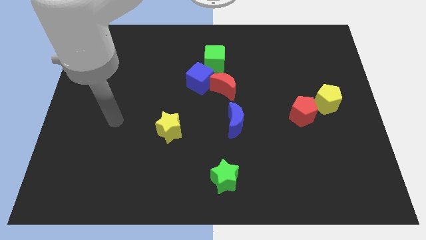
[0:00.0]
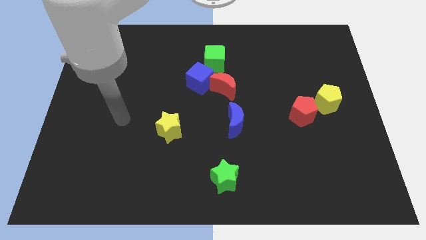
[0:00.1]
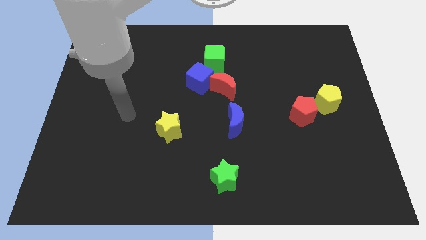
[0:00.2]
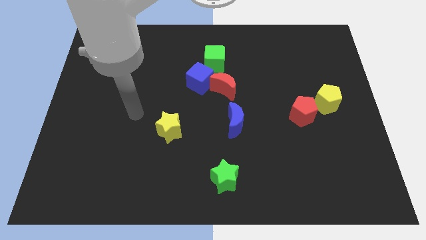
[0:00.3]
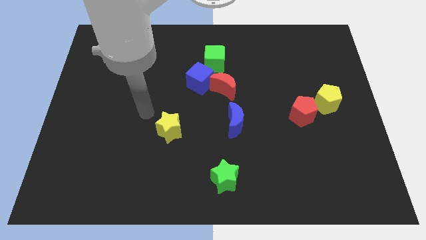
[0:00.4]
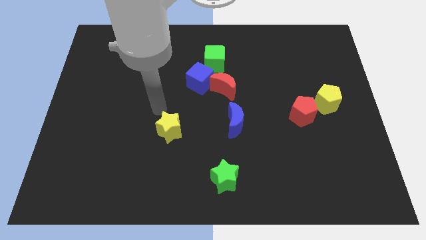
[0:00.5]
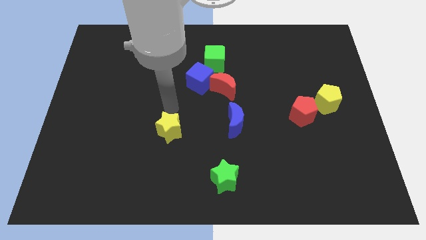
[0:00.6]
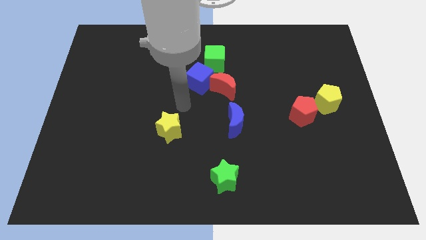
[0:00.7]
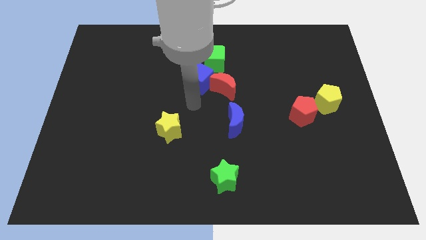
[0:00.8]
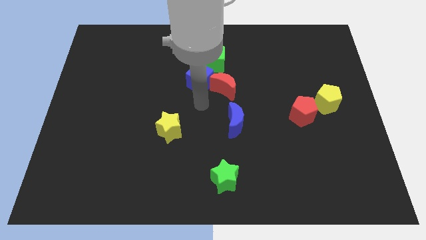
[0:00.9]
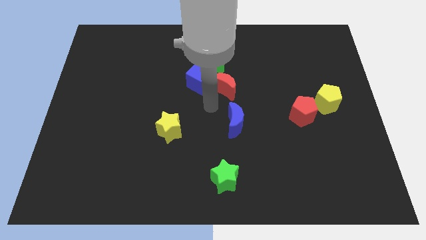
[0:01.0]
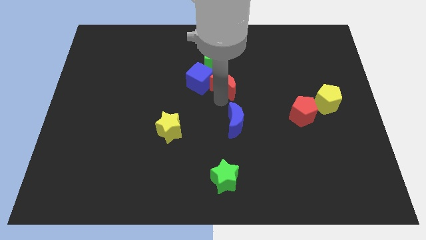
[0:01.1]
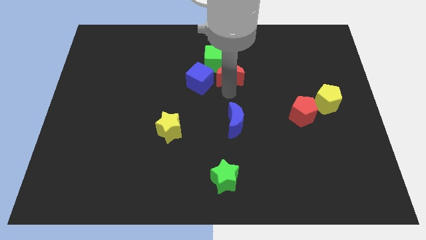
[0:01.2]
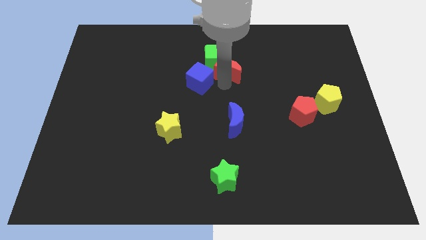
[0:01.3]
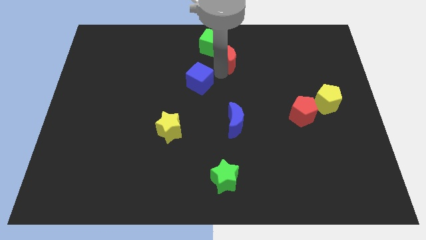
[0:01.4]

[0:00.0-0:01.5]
separate the blue cube from the red moon and green cube

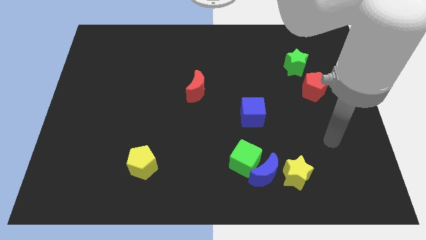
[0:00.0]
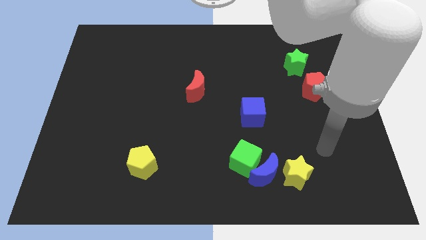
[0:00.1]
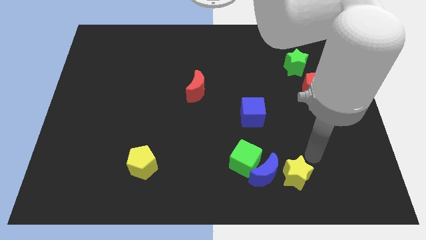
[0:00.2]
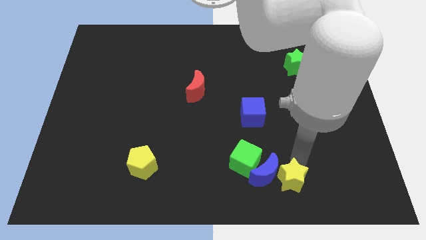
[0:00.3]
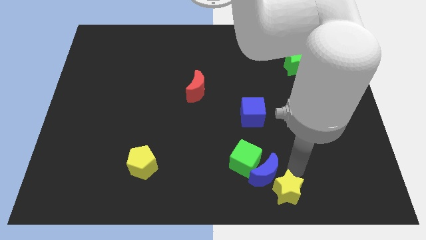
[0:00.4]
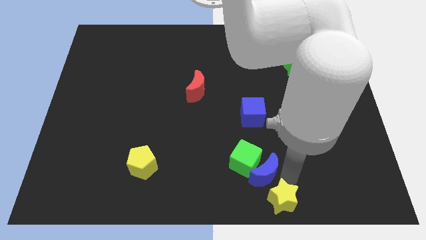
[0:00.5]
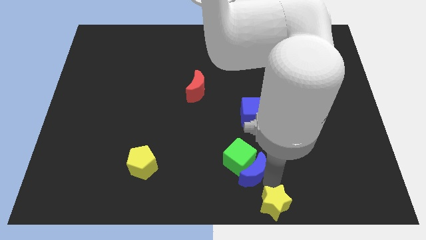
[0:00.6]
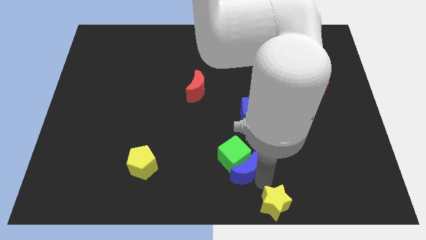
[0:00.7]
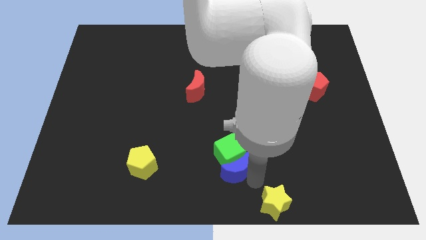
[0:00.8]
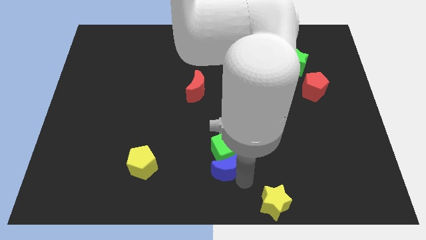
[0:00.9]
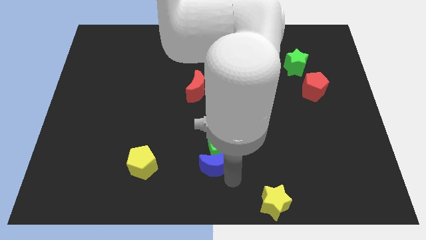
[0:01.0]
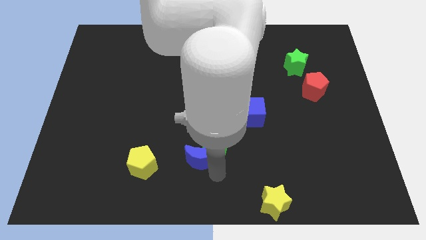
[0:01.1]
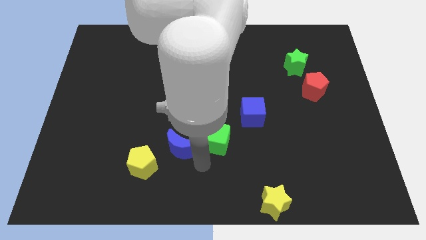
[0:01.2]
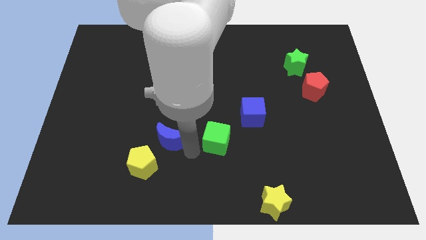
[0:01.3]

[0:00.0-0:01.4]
pull the green cube apart from the blue moon

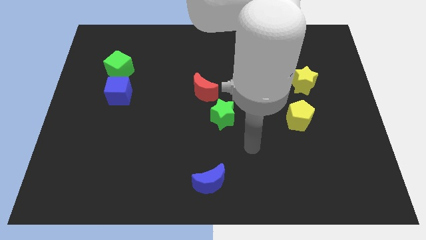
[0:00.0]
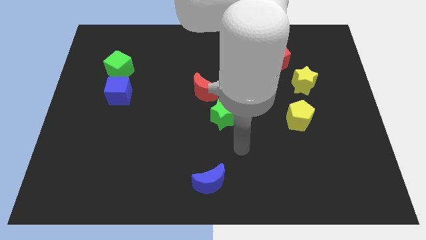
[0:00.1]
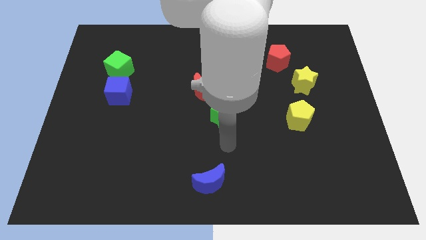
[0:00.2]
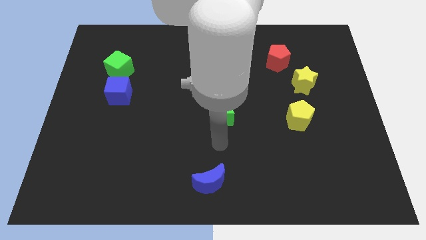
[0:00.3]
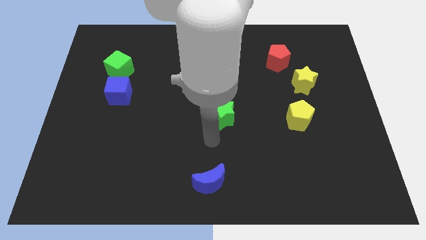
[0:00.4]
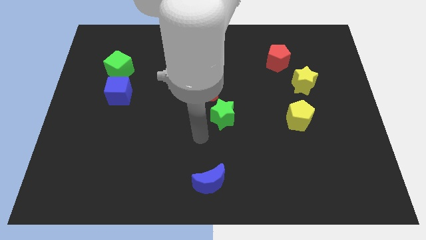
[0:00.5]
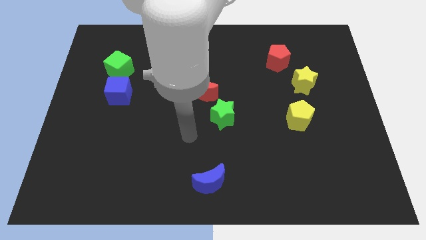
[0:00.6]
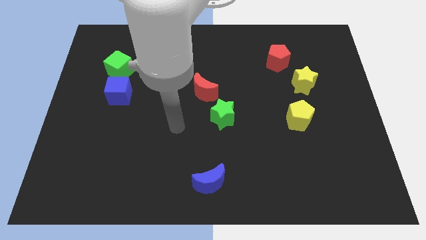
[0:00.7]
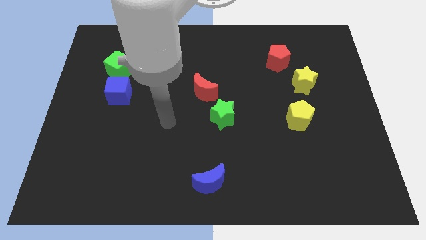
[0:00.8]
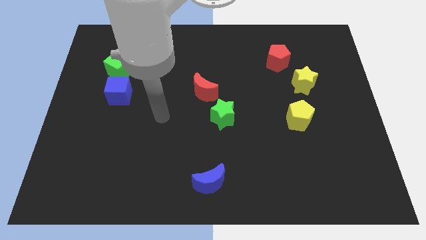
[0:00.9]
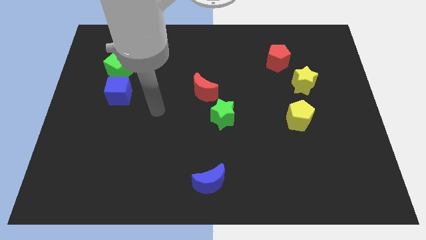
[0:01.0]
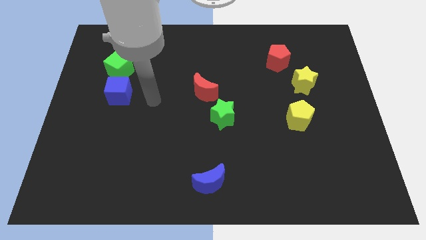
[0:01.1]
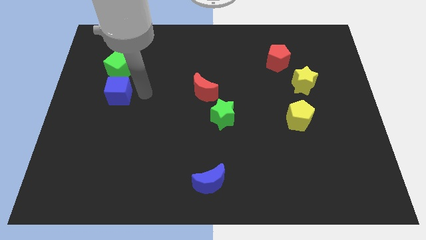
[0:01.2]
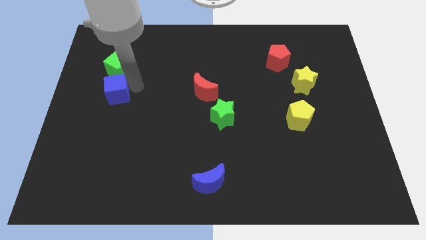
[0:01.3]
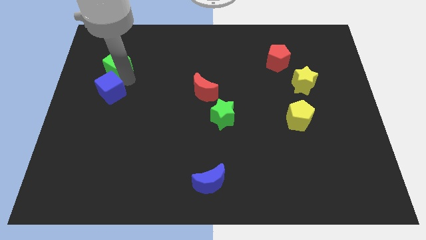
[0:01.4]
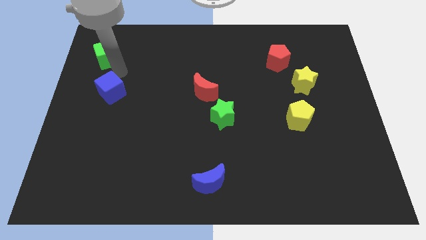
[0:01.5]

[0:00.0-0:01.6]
pull the blue cube apart from the green cube

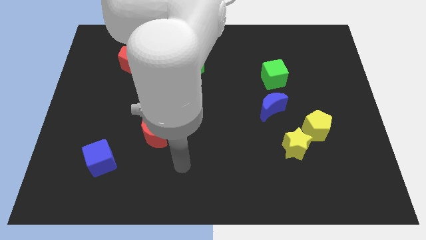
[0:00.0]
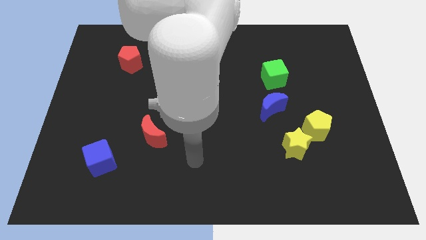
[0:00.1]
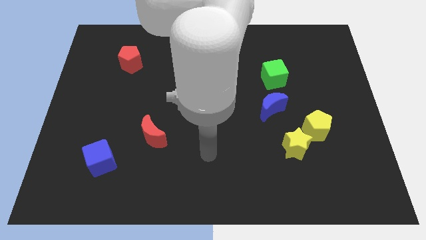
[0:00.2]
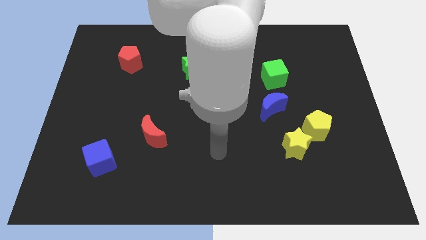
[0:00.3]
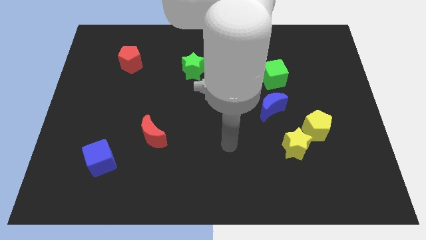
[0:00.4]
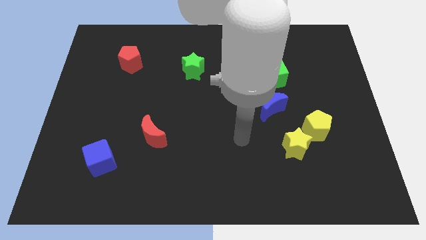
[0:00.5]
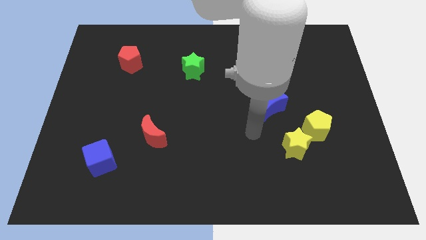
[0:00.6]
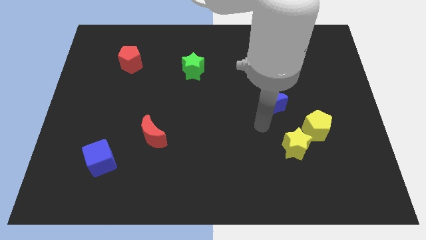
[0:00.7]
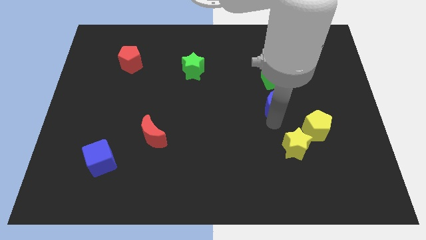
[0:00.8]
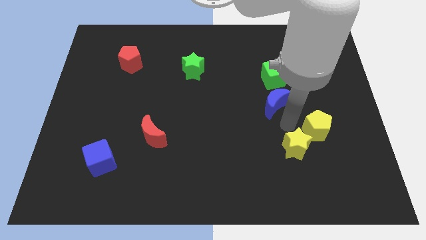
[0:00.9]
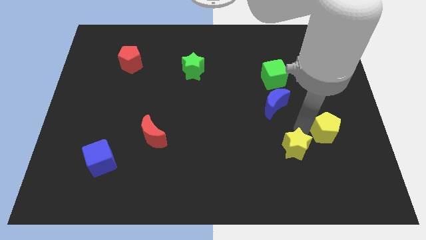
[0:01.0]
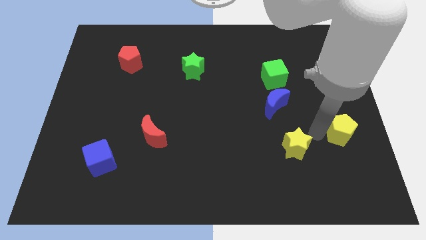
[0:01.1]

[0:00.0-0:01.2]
pull the yellow star apart from the yellow pentagon

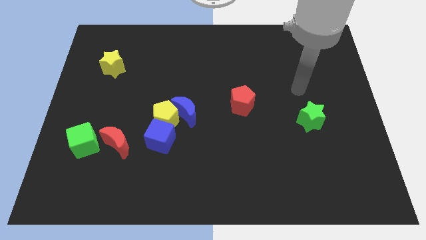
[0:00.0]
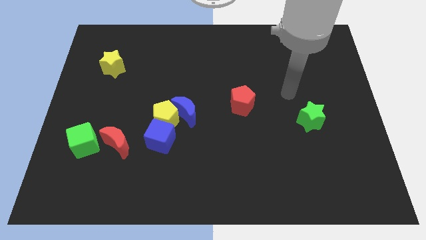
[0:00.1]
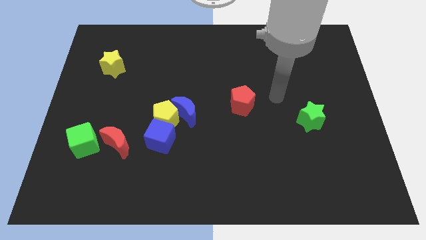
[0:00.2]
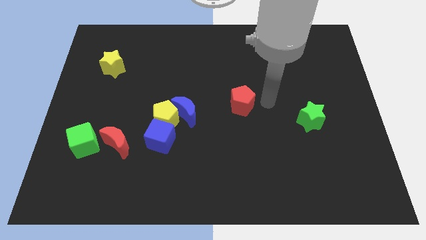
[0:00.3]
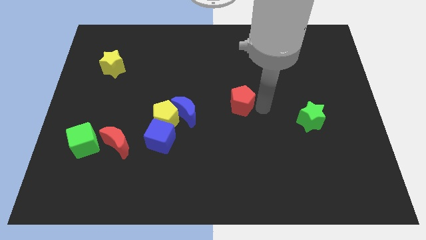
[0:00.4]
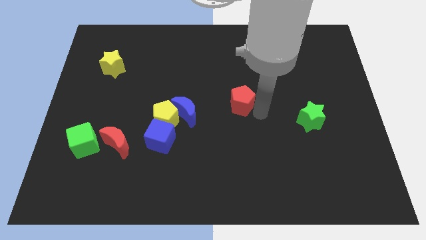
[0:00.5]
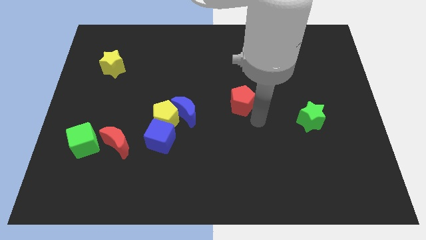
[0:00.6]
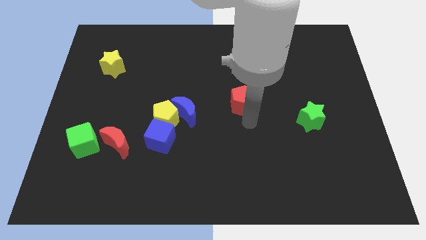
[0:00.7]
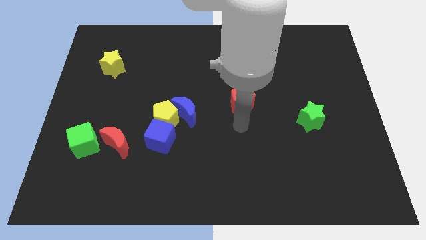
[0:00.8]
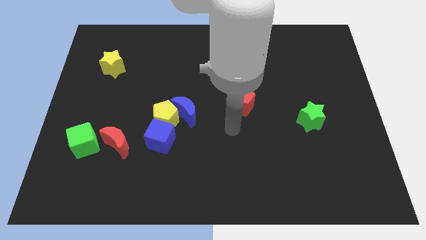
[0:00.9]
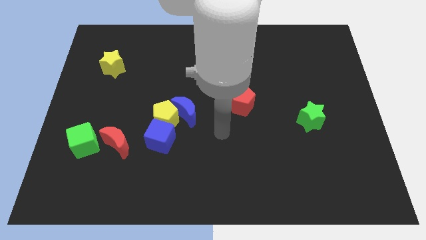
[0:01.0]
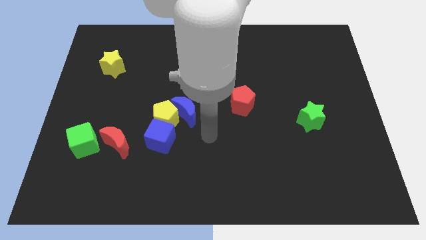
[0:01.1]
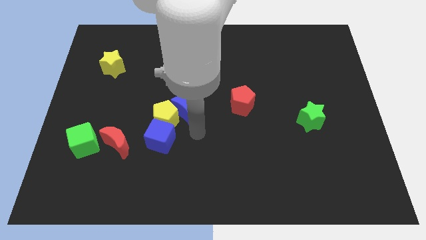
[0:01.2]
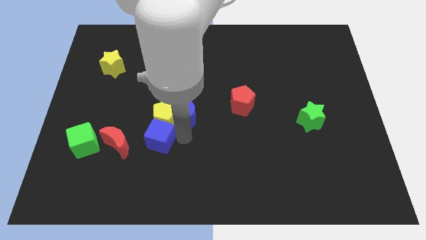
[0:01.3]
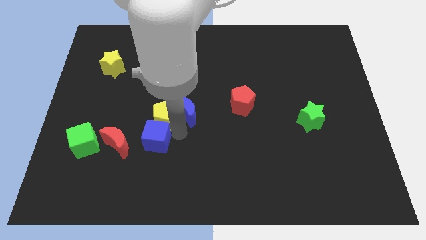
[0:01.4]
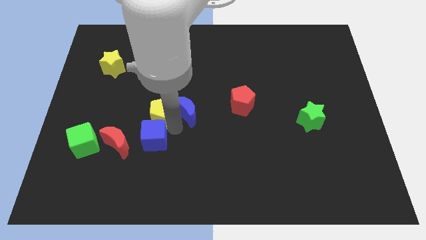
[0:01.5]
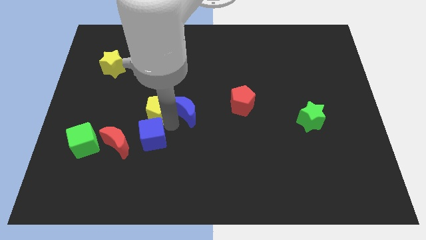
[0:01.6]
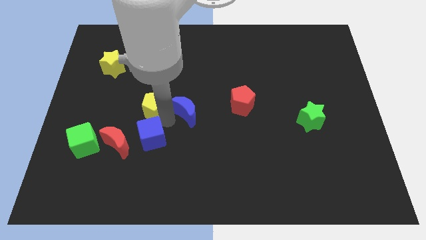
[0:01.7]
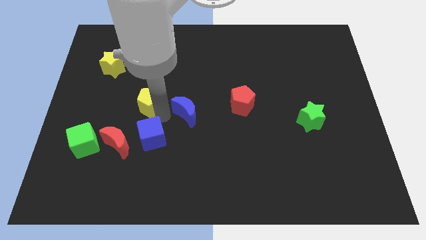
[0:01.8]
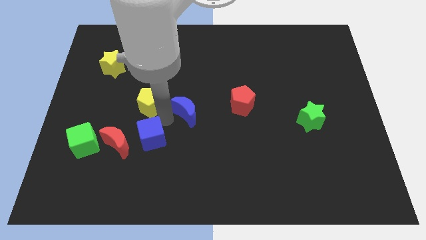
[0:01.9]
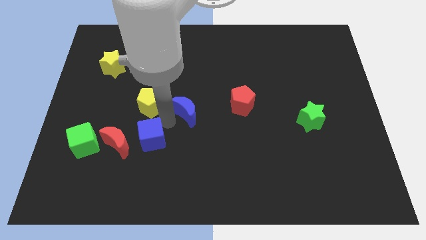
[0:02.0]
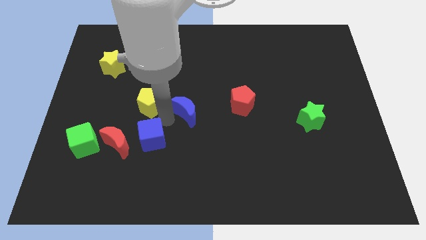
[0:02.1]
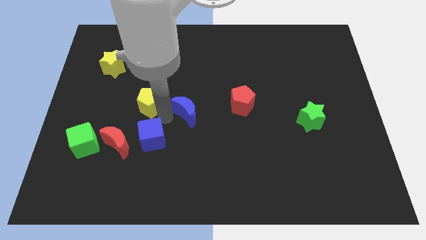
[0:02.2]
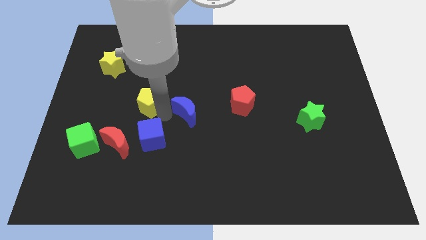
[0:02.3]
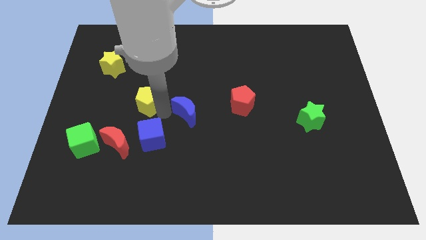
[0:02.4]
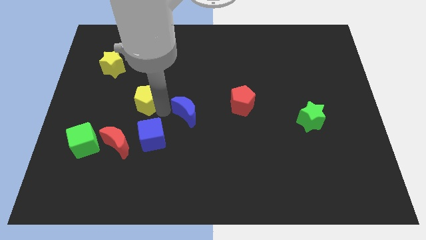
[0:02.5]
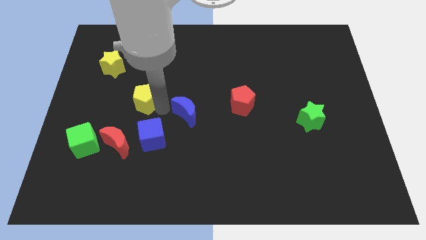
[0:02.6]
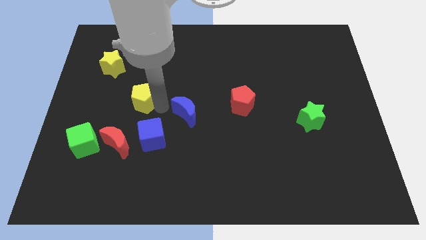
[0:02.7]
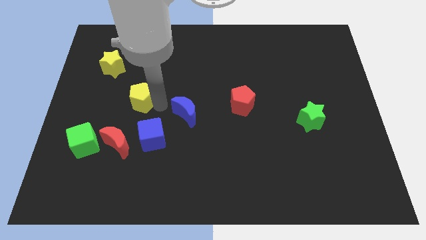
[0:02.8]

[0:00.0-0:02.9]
move the yellow pentagon away from the blue moon and blue cube

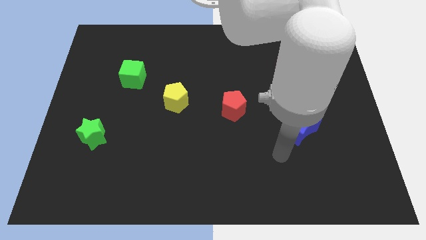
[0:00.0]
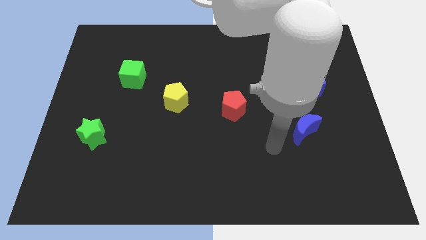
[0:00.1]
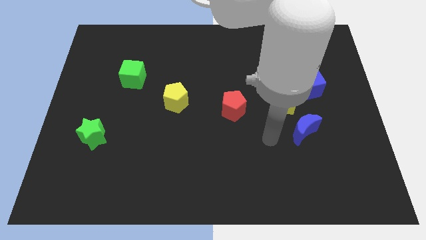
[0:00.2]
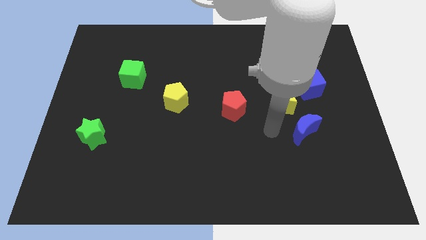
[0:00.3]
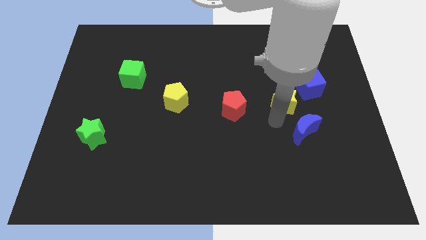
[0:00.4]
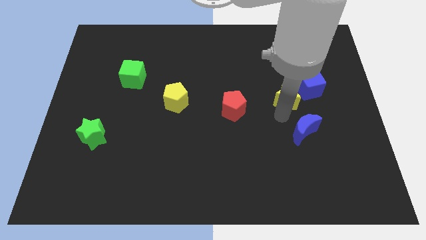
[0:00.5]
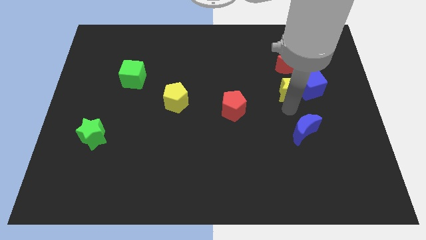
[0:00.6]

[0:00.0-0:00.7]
pull the blue moon apart from the yellow star

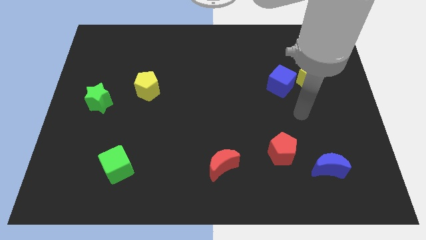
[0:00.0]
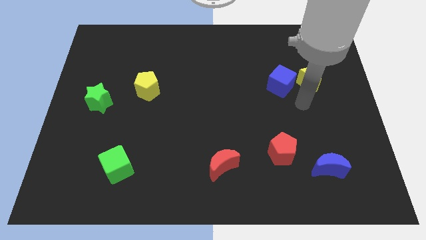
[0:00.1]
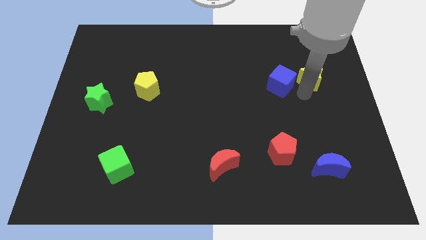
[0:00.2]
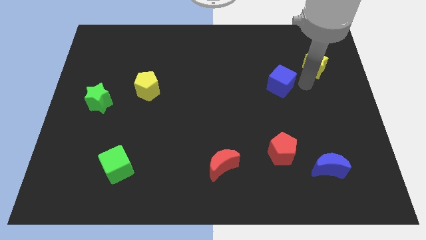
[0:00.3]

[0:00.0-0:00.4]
separate the blue cube from the yellow star
